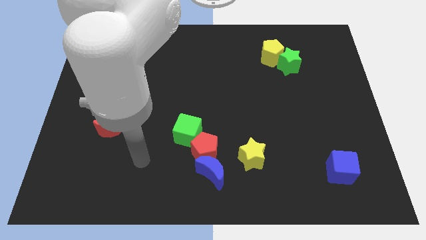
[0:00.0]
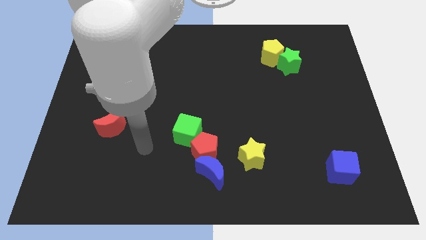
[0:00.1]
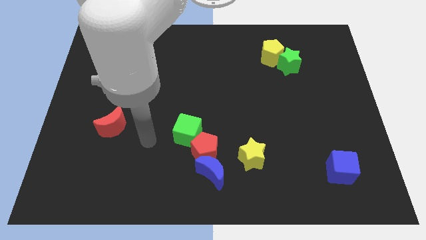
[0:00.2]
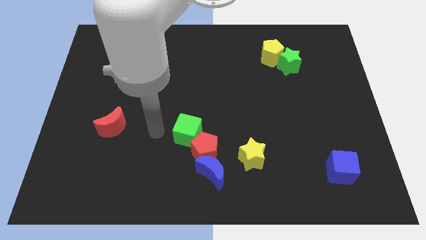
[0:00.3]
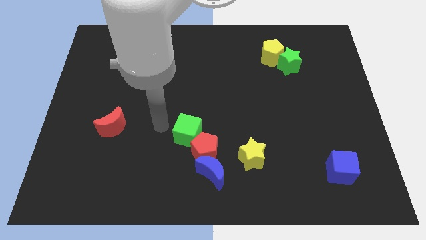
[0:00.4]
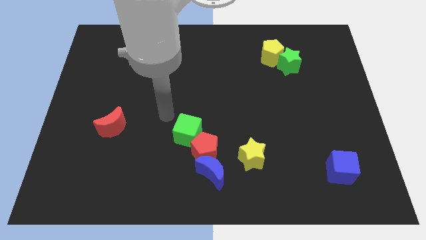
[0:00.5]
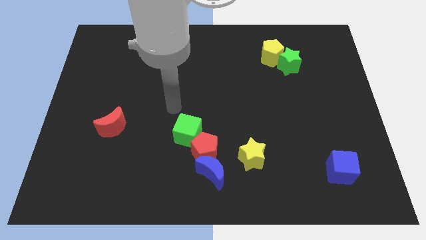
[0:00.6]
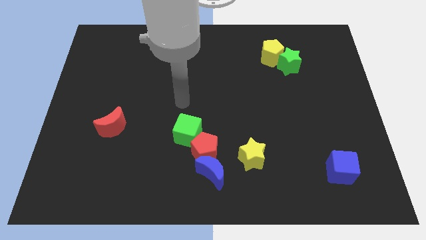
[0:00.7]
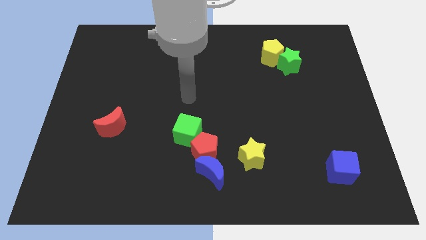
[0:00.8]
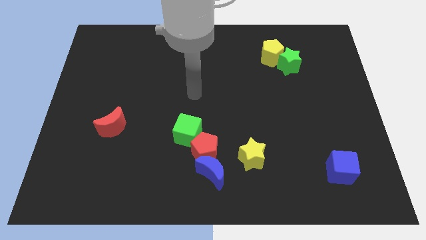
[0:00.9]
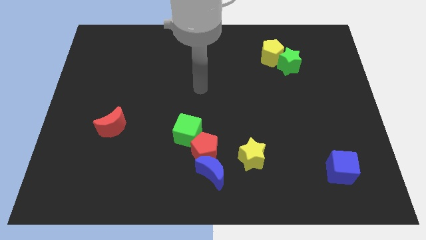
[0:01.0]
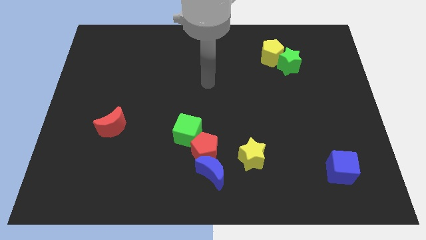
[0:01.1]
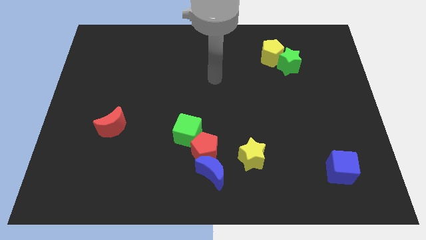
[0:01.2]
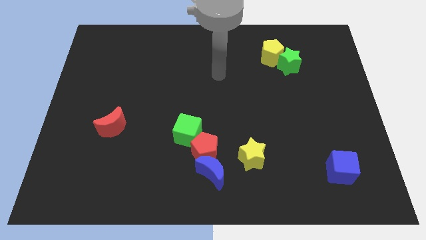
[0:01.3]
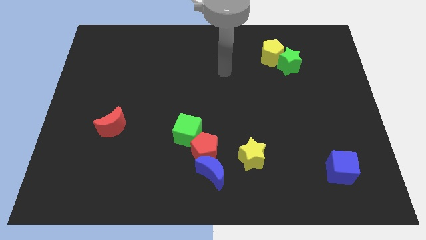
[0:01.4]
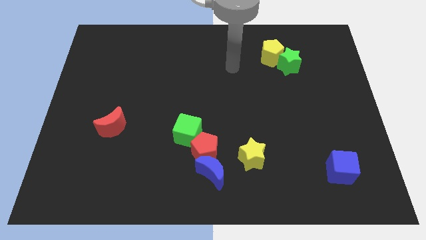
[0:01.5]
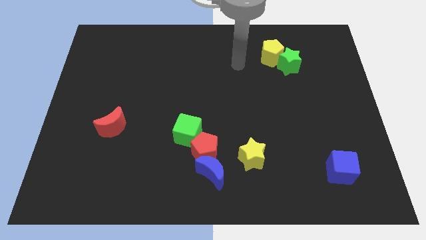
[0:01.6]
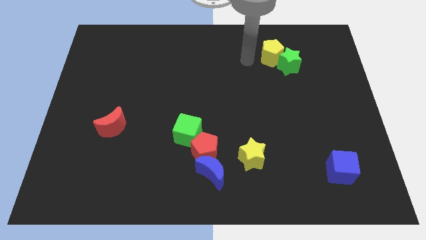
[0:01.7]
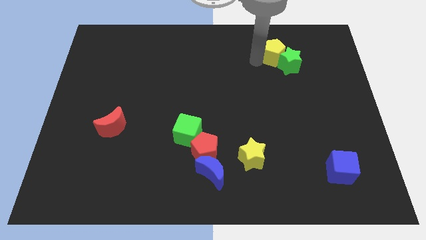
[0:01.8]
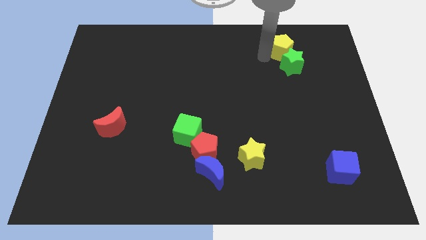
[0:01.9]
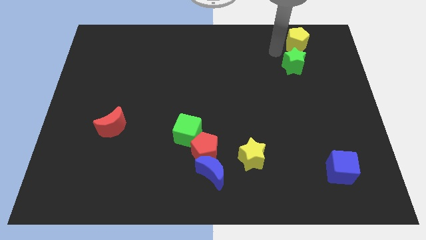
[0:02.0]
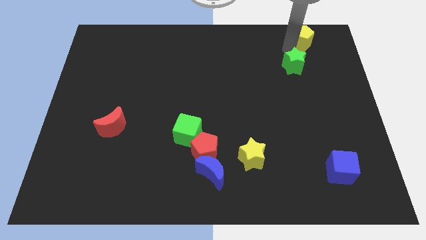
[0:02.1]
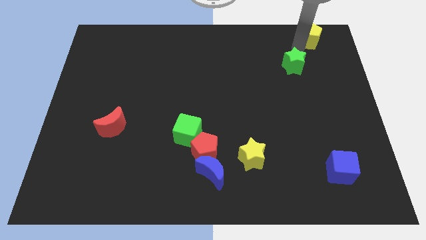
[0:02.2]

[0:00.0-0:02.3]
pull the green star apart from the yellow pentagon

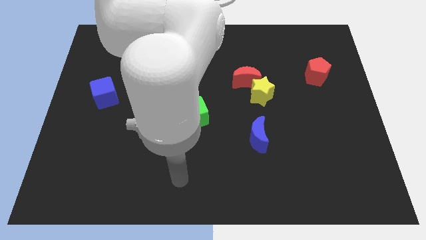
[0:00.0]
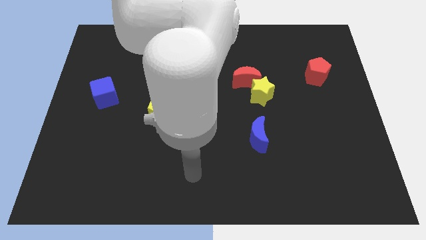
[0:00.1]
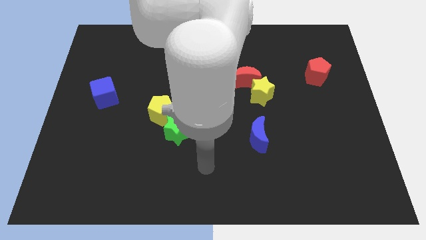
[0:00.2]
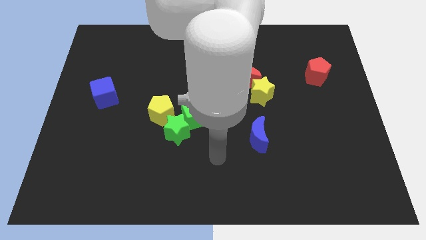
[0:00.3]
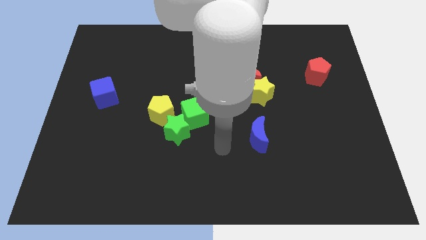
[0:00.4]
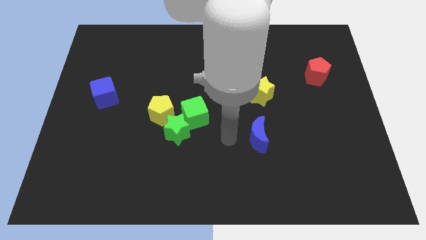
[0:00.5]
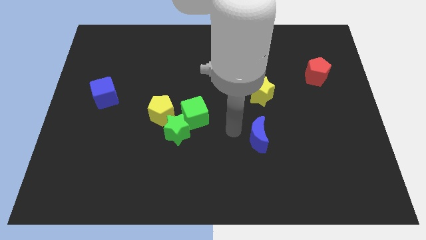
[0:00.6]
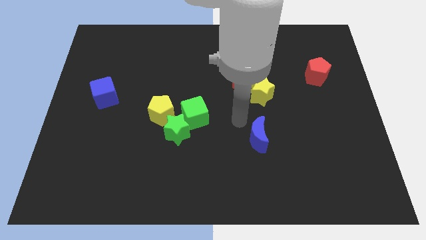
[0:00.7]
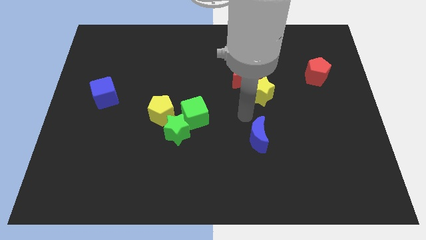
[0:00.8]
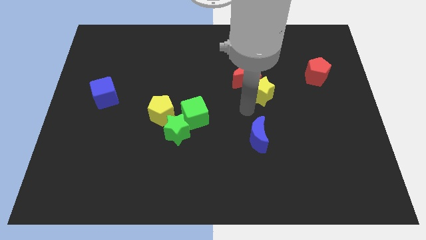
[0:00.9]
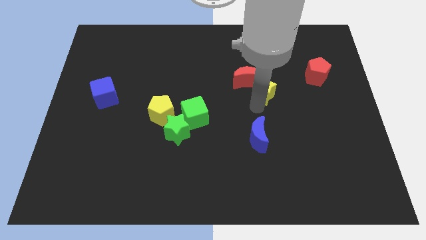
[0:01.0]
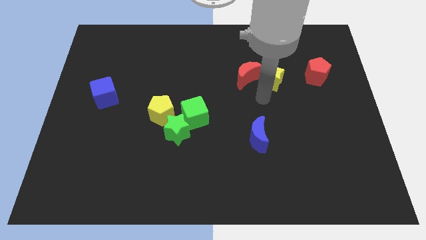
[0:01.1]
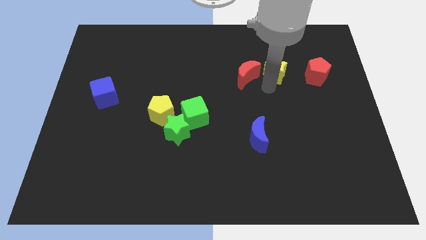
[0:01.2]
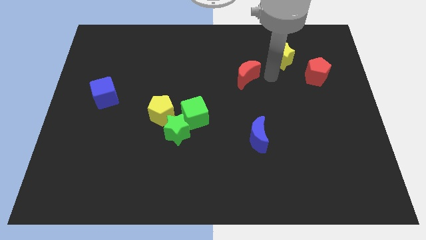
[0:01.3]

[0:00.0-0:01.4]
pull the red moon apart from the yellow star

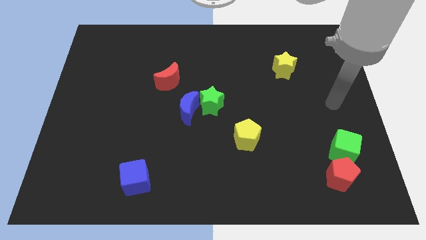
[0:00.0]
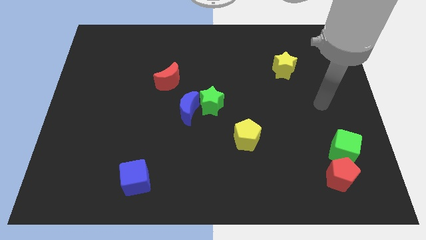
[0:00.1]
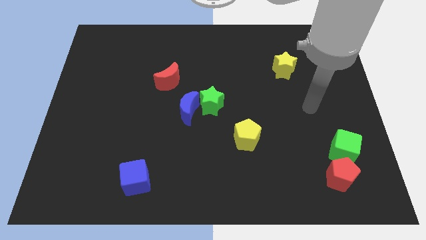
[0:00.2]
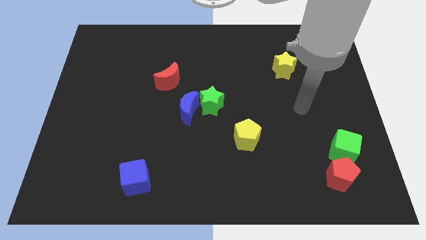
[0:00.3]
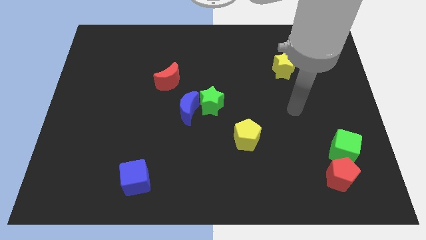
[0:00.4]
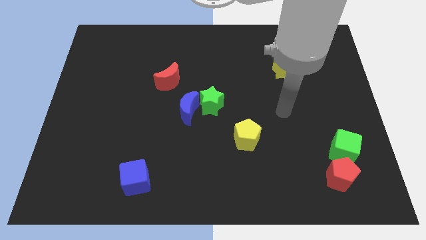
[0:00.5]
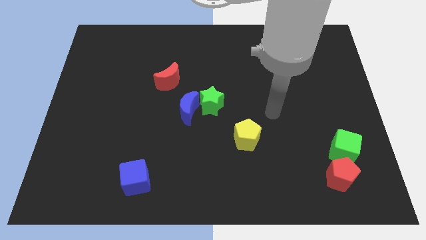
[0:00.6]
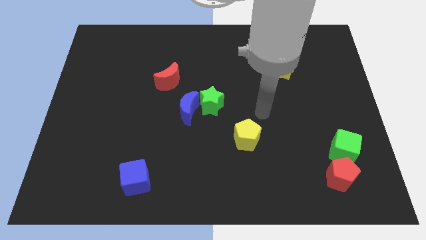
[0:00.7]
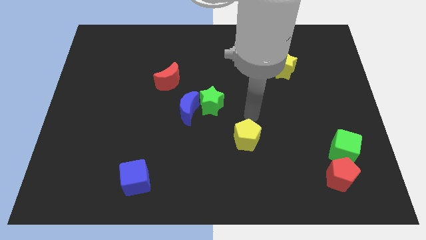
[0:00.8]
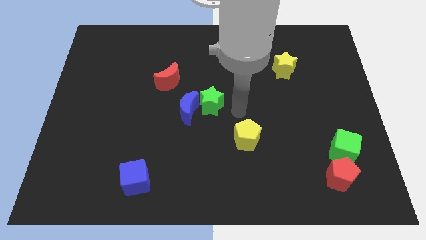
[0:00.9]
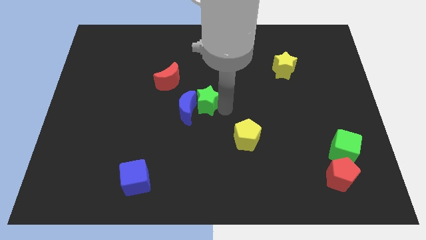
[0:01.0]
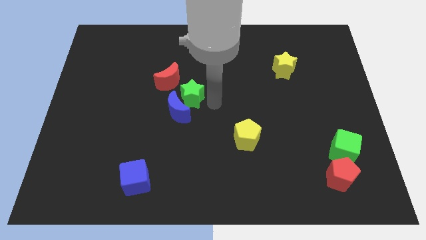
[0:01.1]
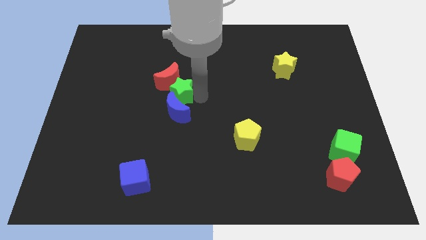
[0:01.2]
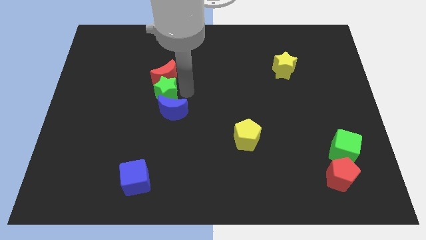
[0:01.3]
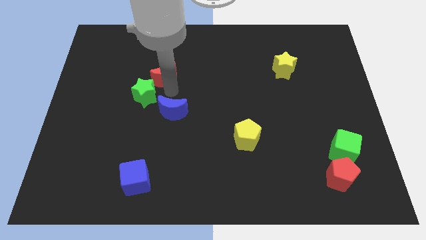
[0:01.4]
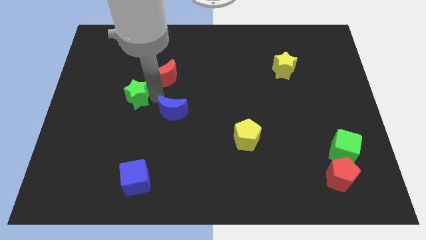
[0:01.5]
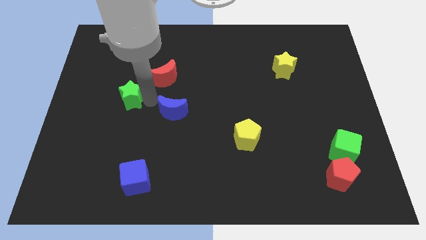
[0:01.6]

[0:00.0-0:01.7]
separate the blue moon from the green star

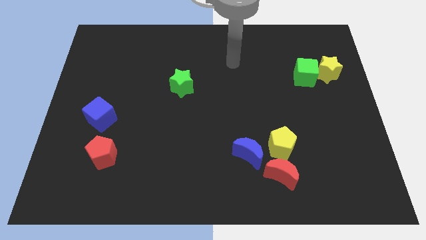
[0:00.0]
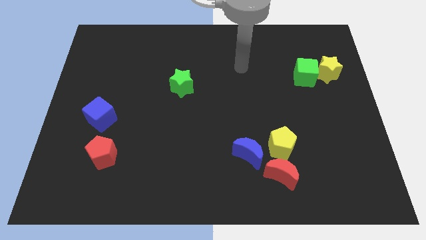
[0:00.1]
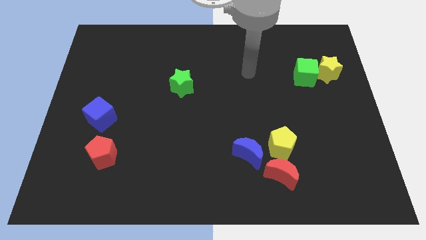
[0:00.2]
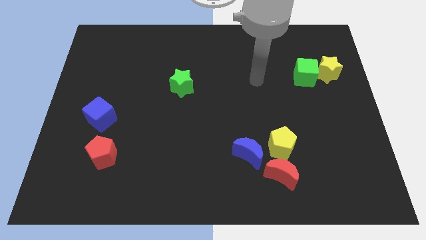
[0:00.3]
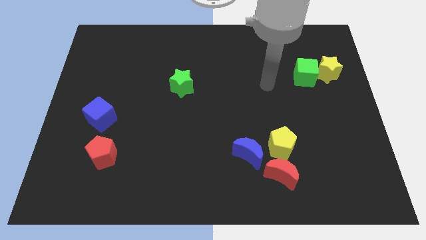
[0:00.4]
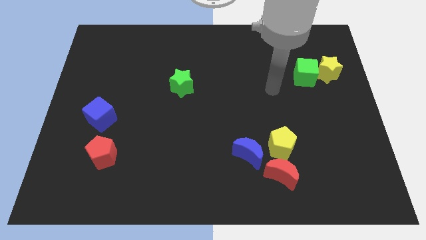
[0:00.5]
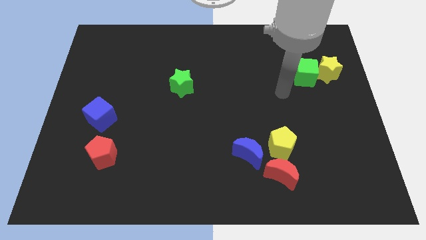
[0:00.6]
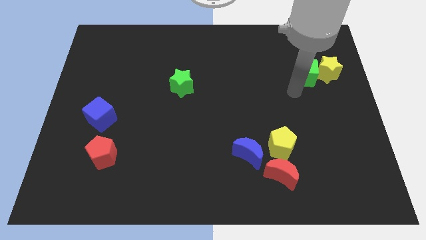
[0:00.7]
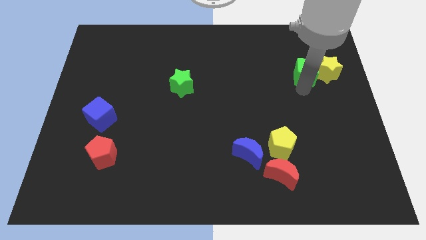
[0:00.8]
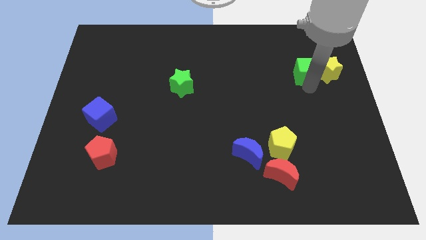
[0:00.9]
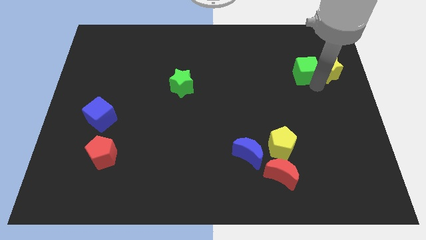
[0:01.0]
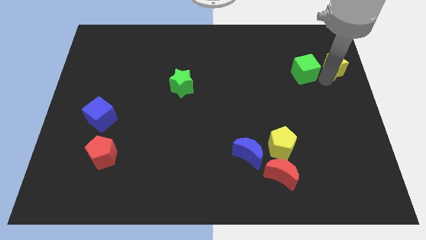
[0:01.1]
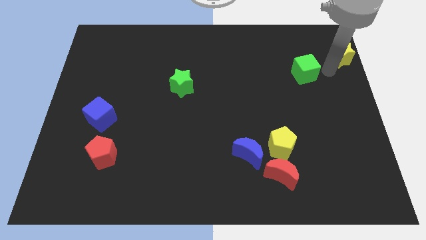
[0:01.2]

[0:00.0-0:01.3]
pull the green cube apart from the yellow star

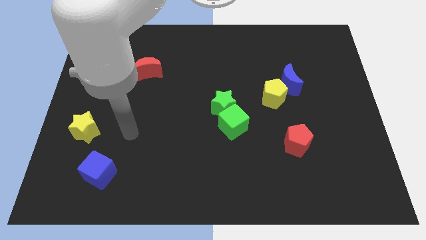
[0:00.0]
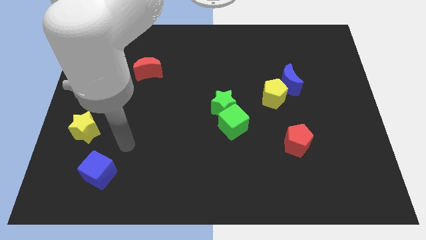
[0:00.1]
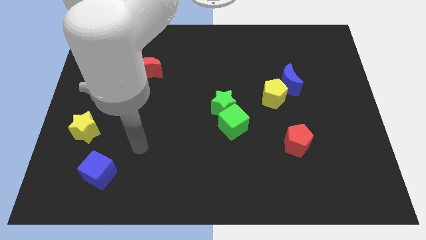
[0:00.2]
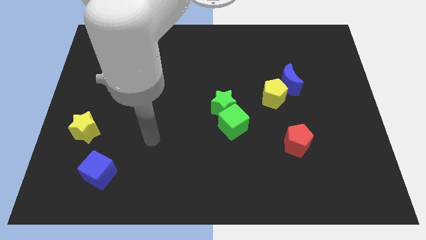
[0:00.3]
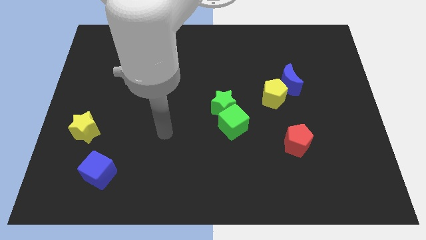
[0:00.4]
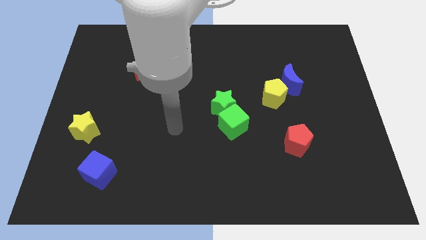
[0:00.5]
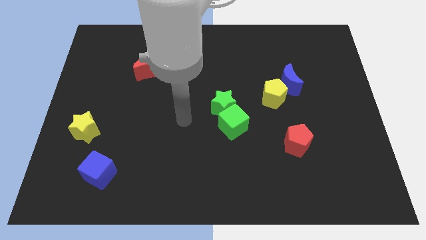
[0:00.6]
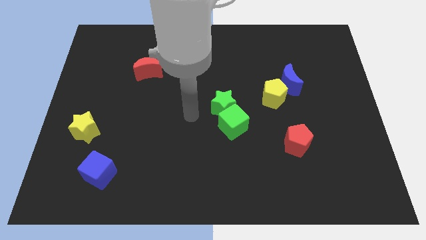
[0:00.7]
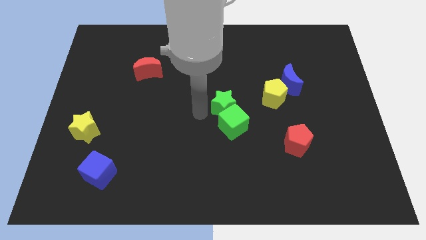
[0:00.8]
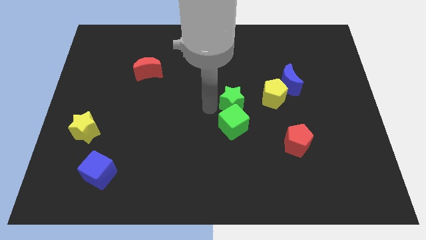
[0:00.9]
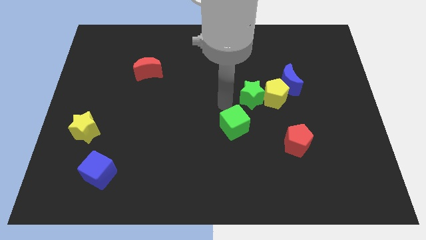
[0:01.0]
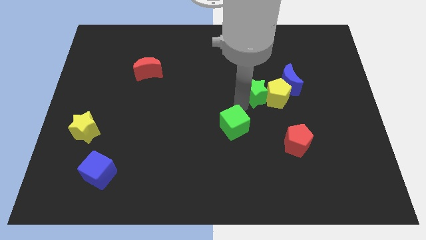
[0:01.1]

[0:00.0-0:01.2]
separate the green cube from the green star

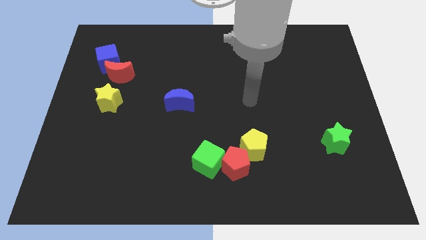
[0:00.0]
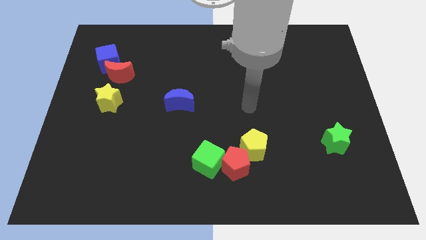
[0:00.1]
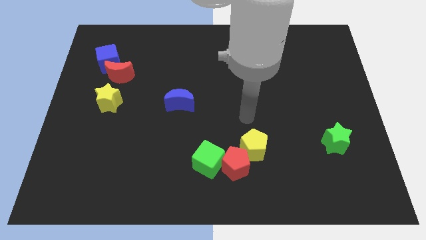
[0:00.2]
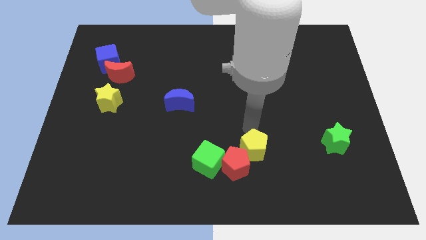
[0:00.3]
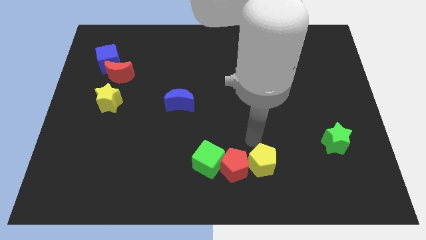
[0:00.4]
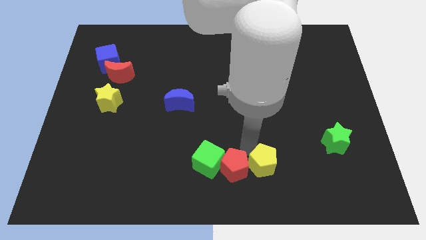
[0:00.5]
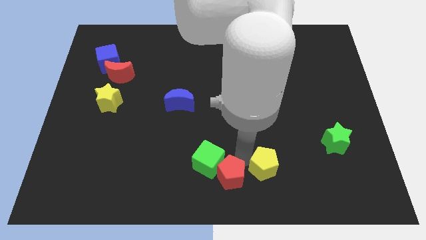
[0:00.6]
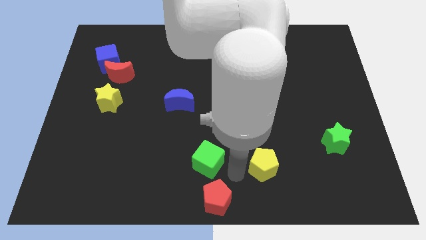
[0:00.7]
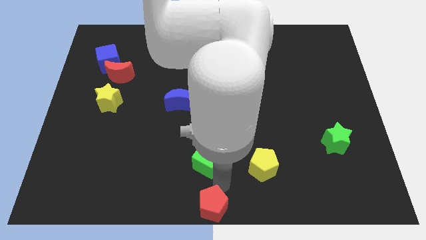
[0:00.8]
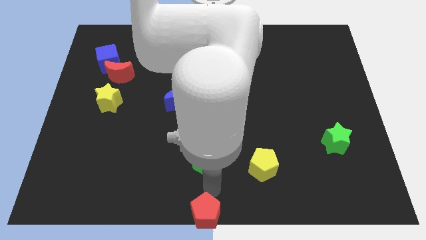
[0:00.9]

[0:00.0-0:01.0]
move the green cube away from the red pentagon

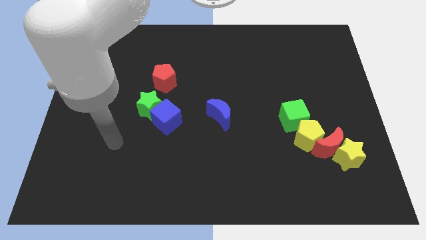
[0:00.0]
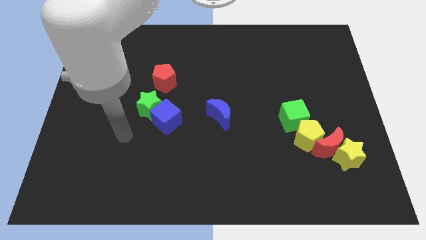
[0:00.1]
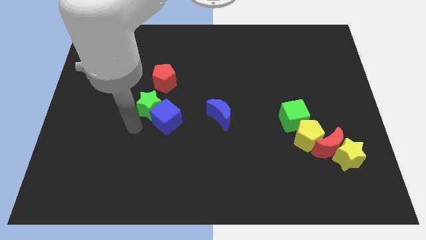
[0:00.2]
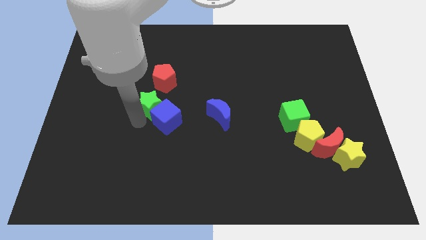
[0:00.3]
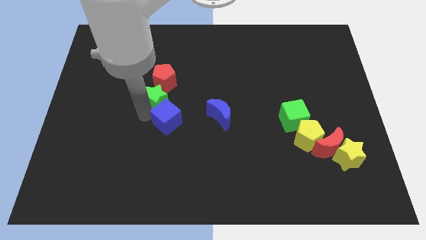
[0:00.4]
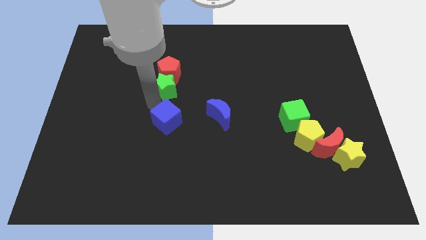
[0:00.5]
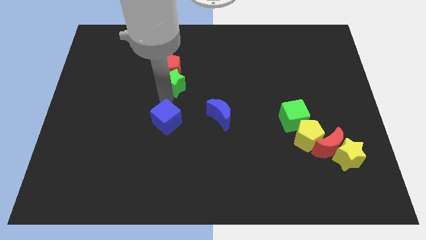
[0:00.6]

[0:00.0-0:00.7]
move the blue cube away from the green star
